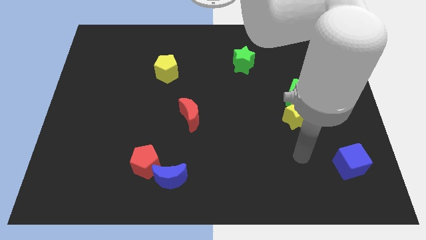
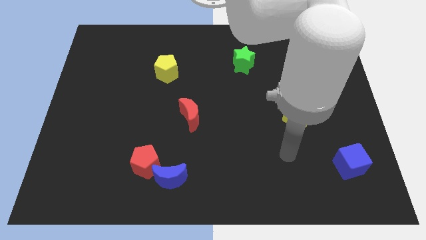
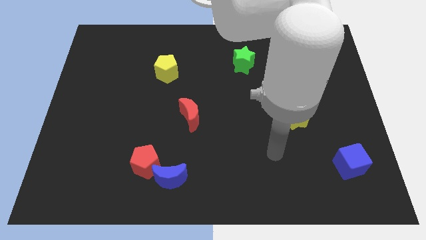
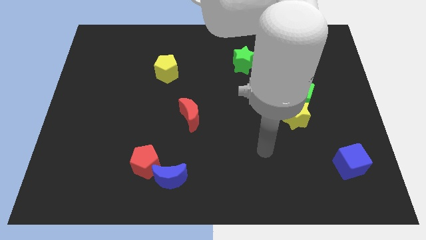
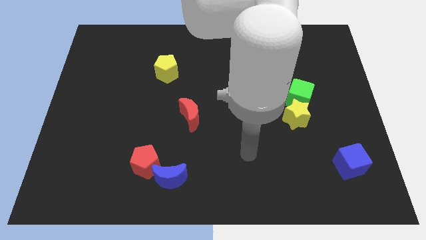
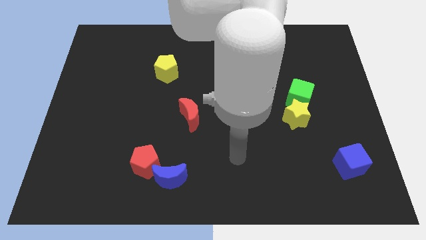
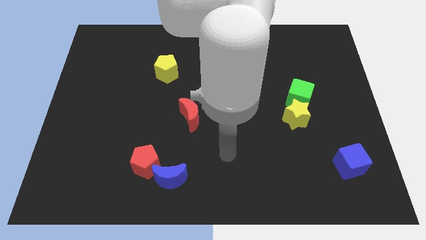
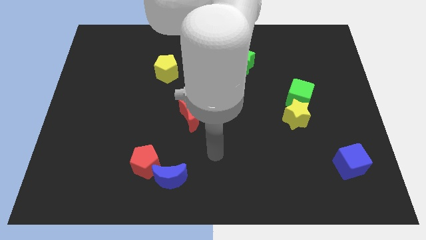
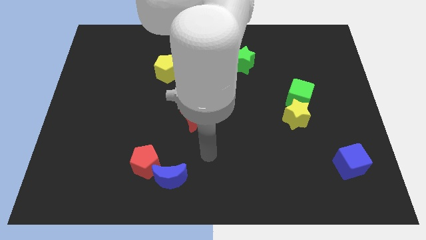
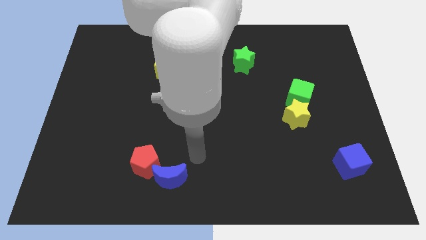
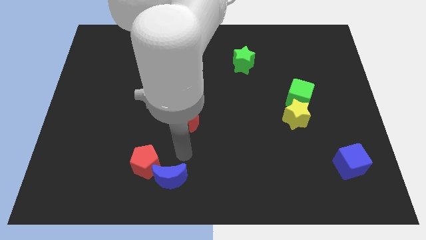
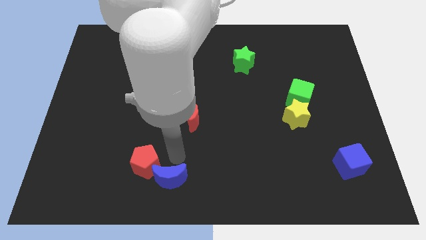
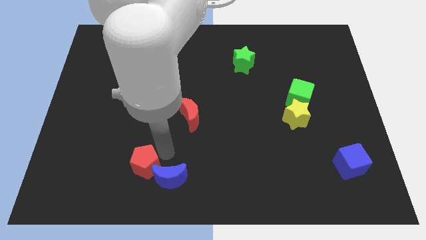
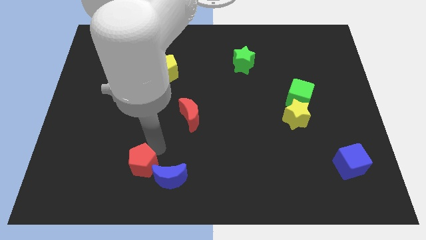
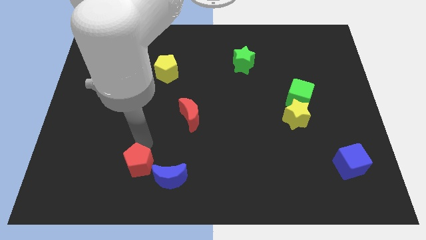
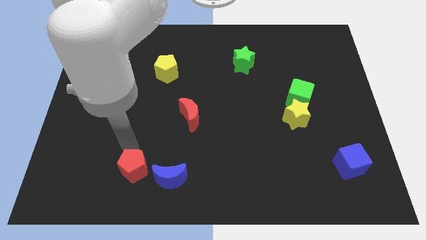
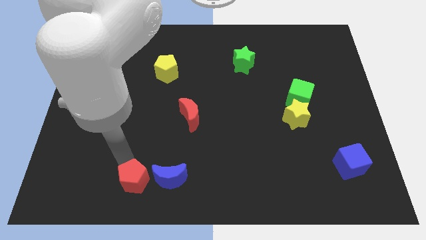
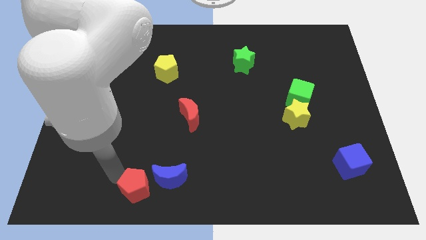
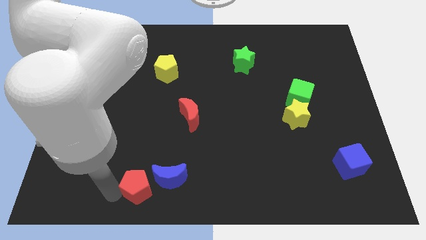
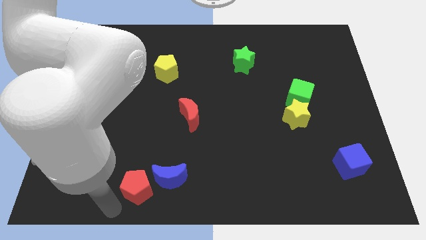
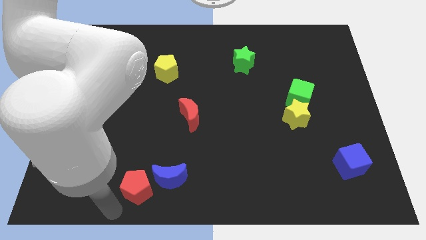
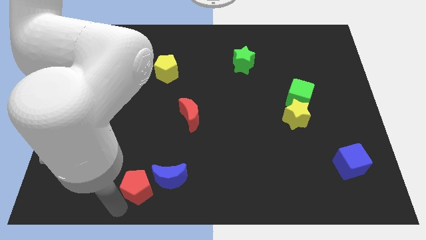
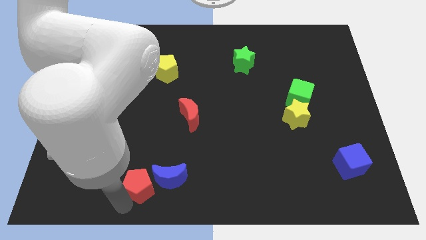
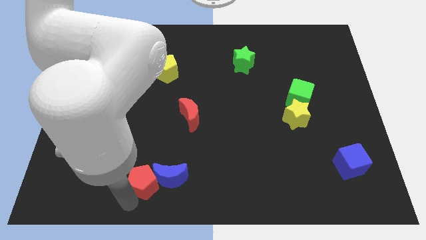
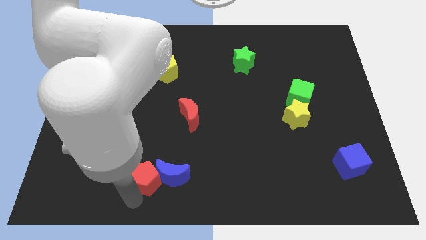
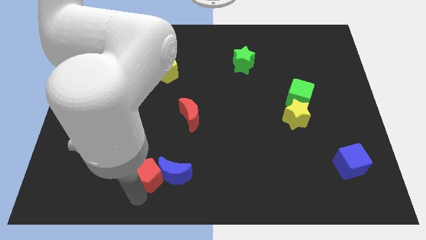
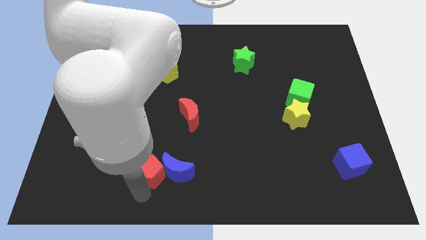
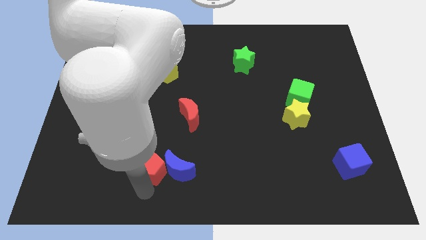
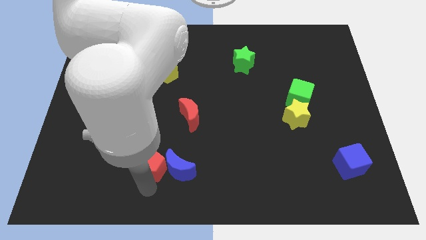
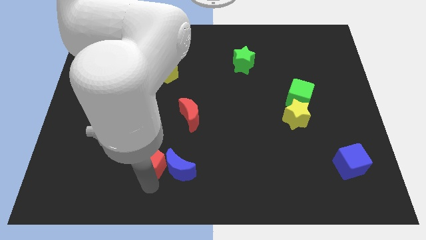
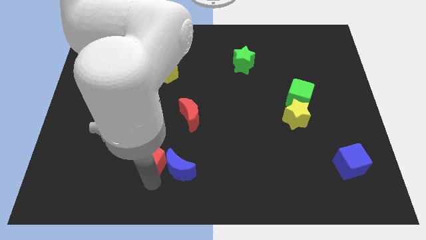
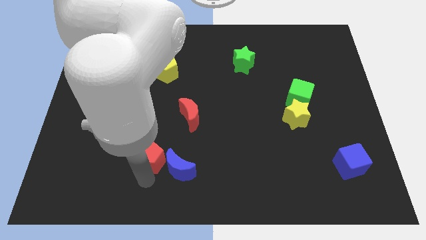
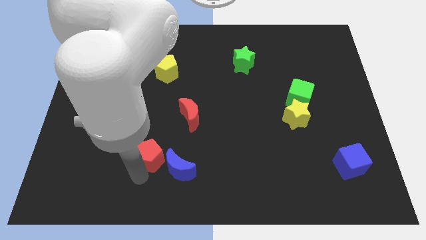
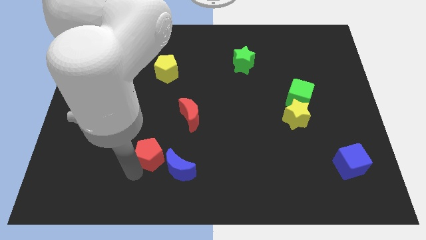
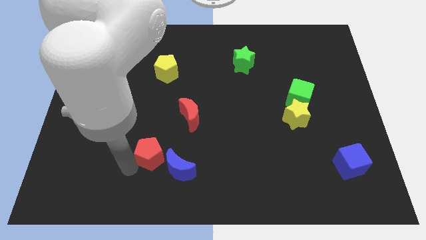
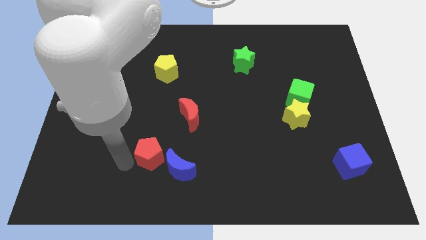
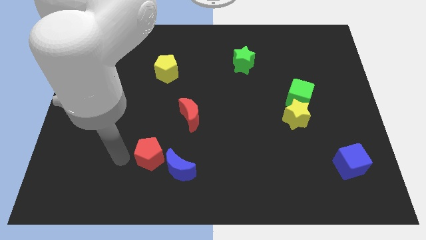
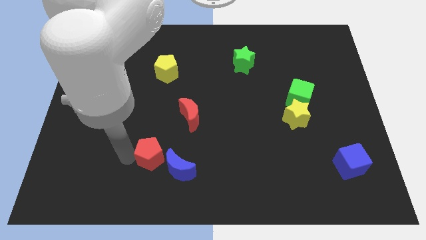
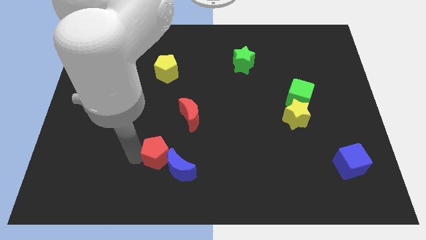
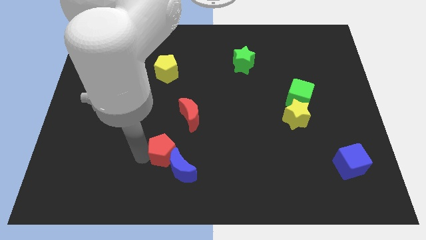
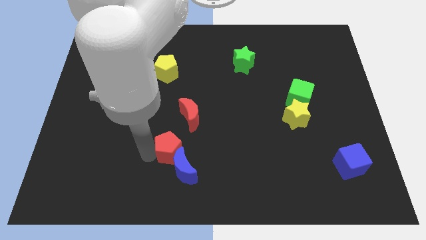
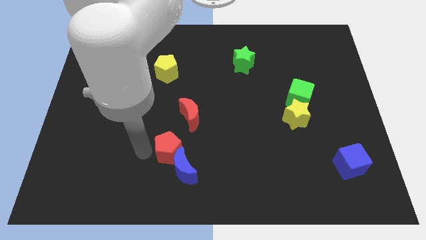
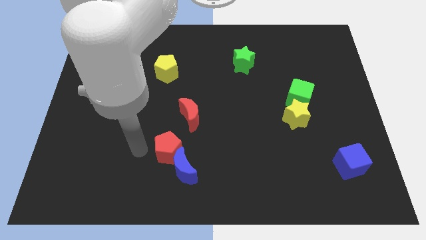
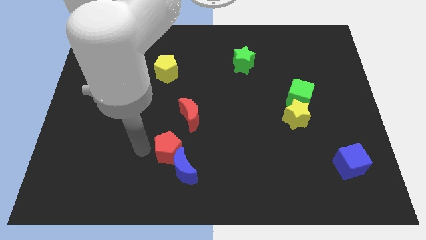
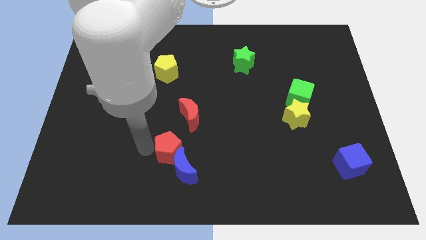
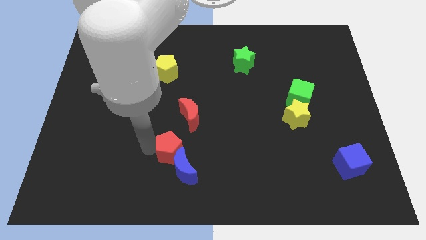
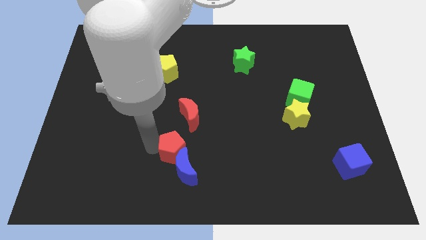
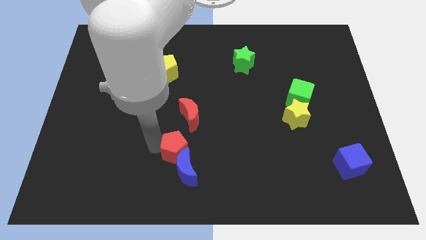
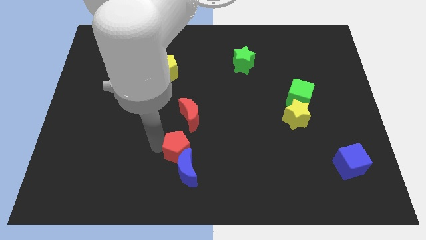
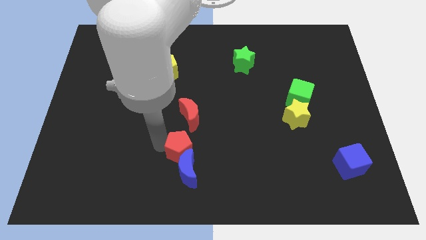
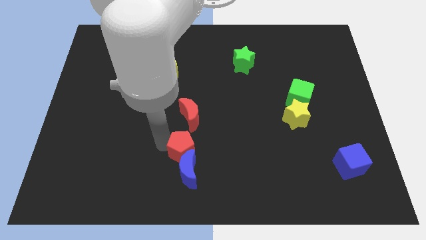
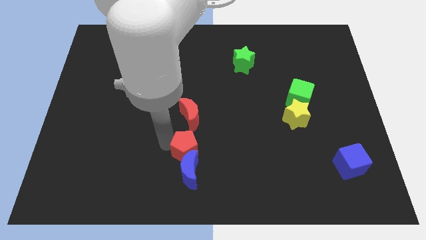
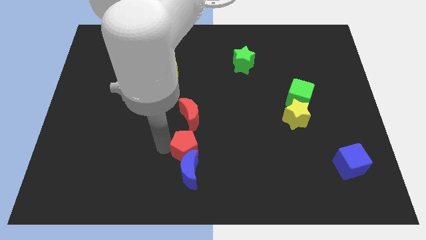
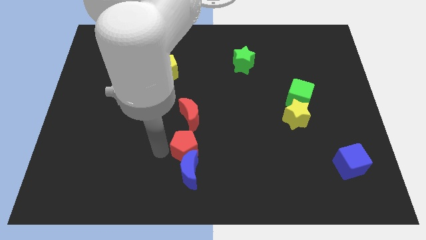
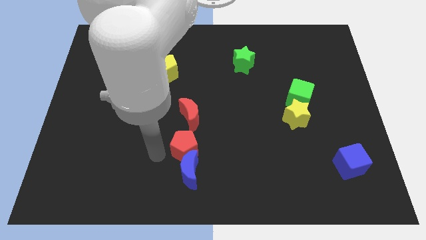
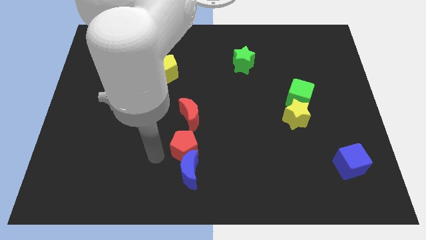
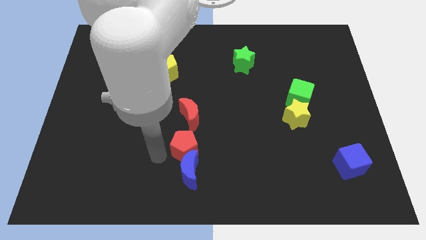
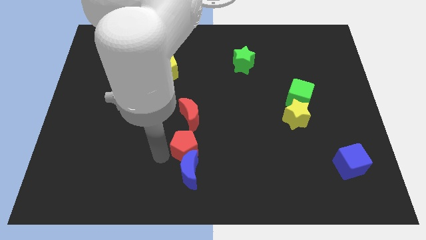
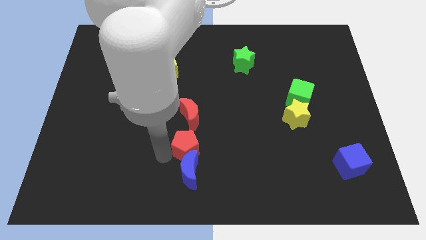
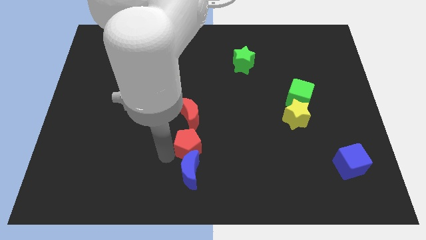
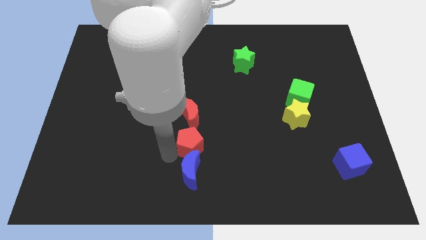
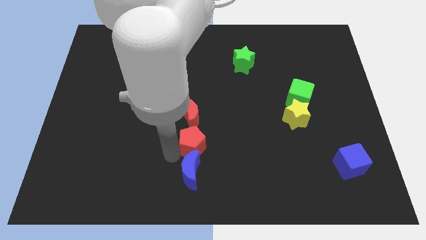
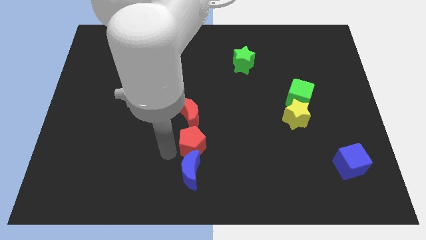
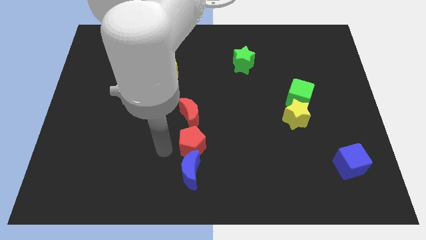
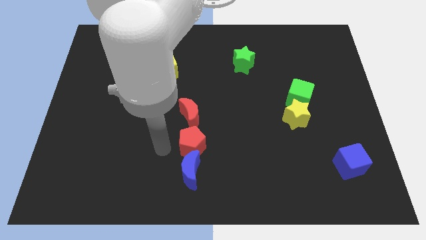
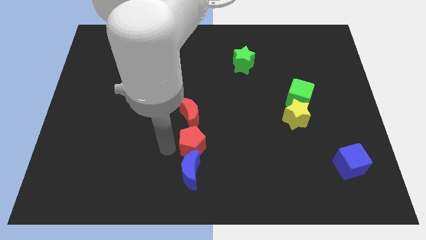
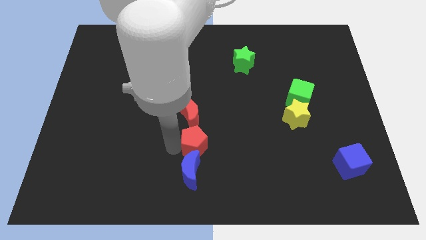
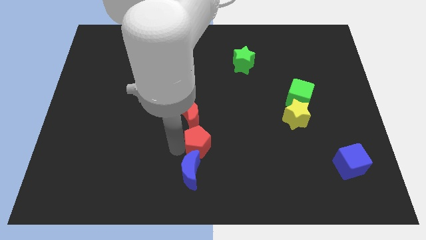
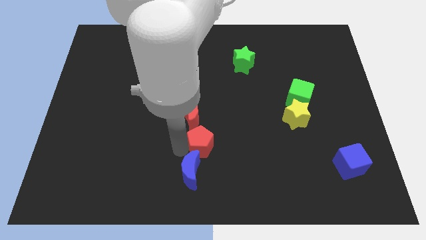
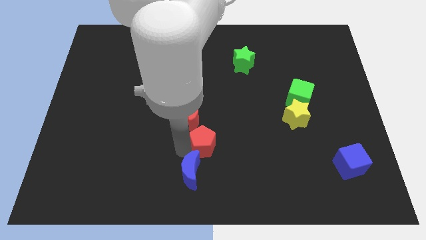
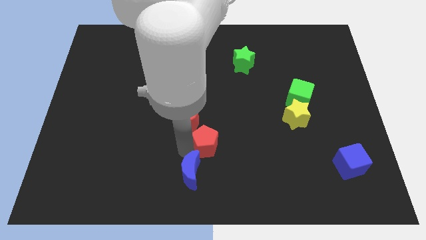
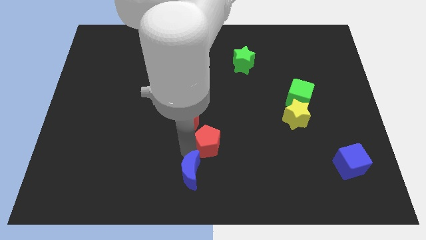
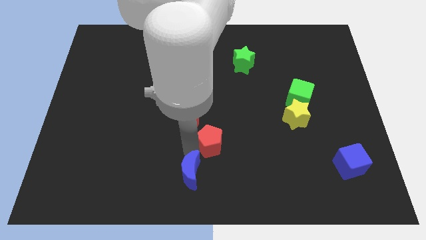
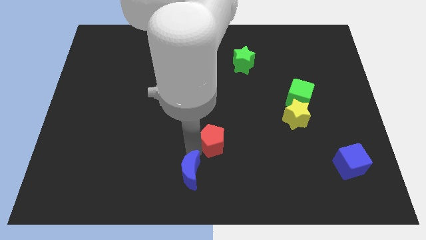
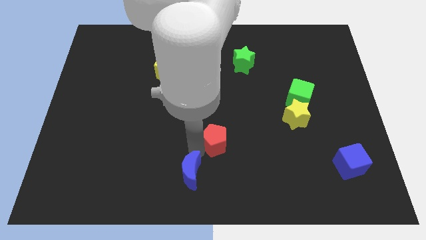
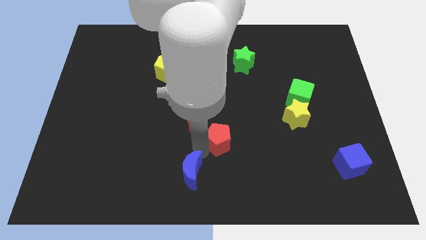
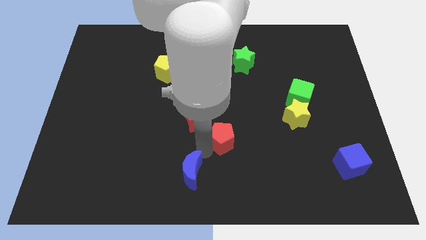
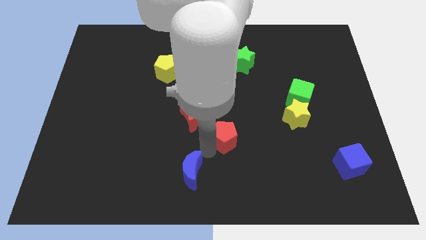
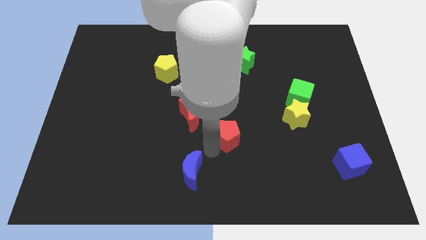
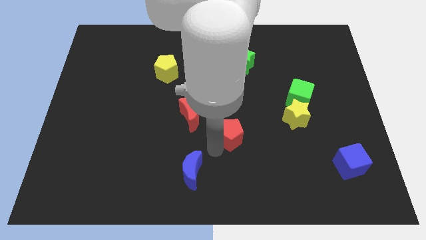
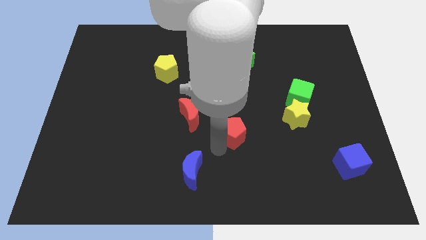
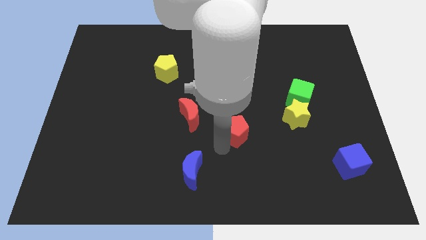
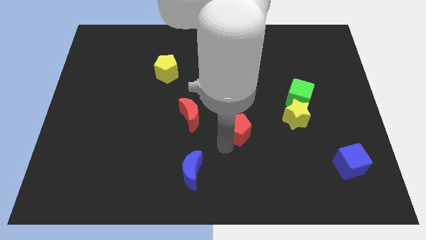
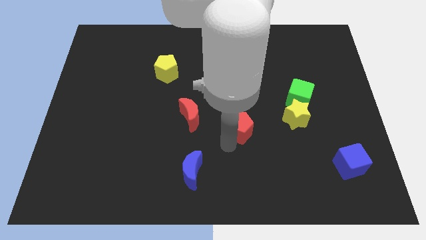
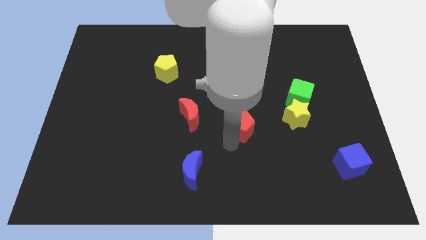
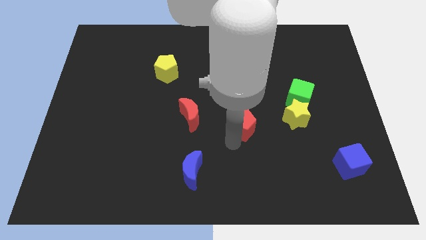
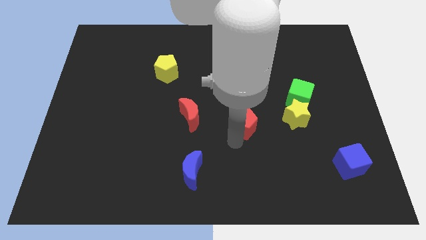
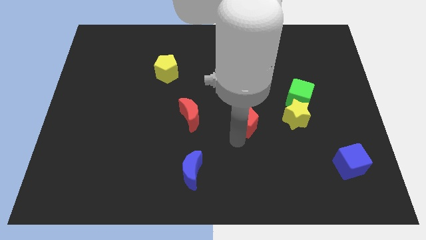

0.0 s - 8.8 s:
push the red pentagon upwards and then right
